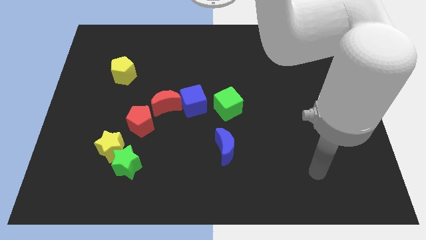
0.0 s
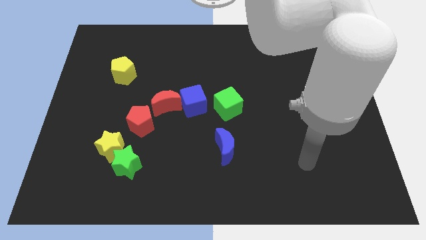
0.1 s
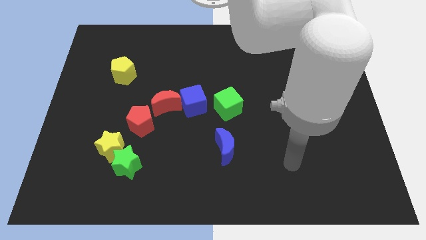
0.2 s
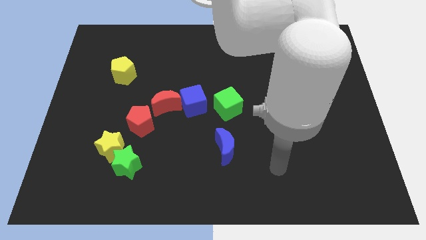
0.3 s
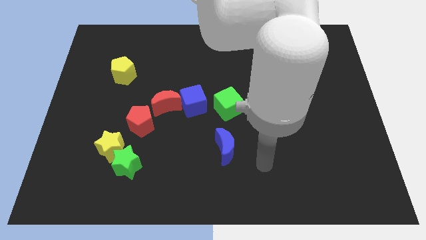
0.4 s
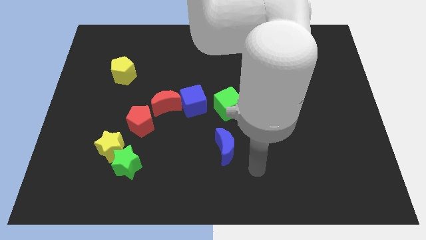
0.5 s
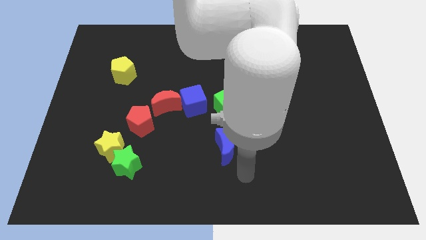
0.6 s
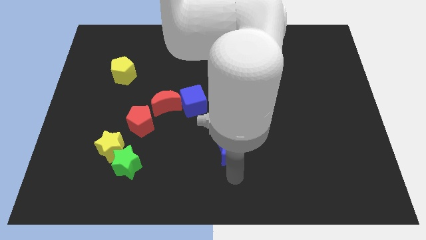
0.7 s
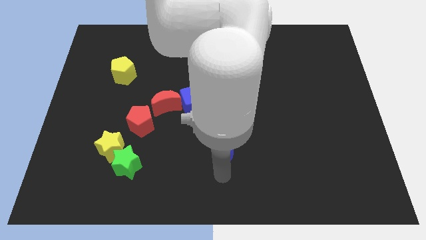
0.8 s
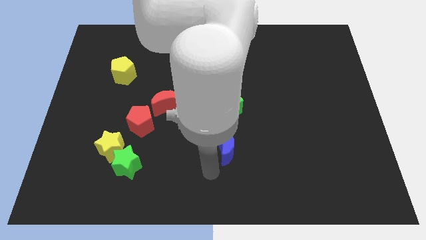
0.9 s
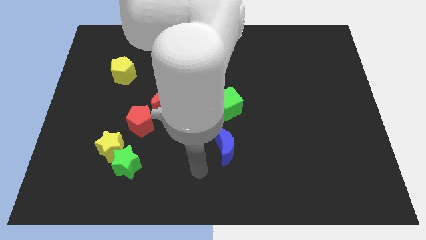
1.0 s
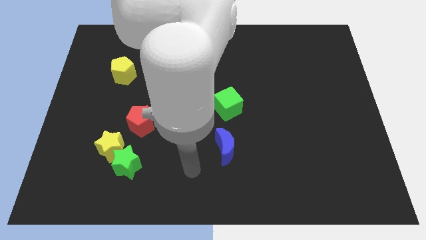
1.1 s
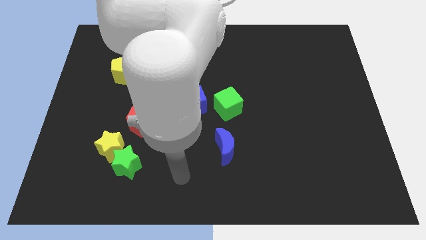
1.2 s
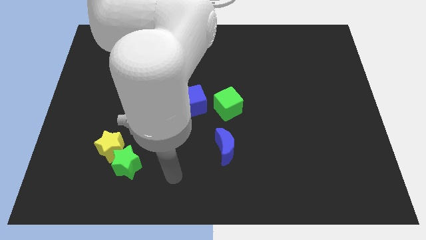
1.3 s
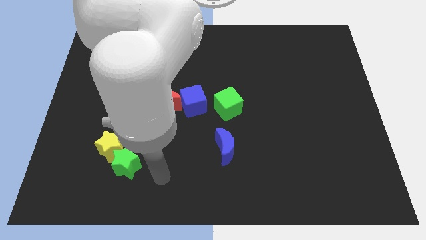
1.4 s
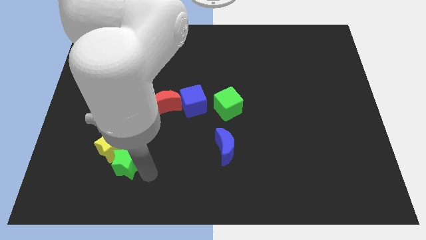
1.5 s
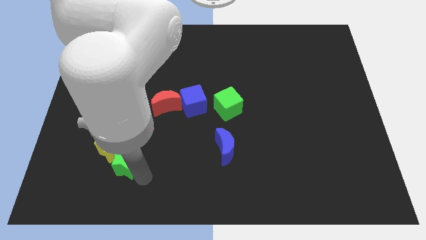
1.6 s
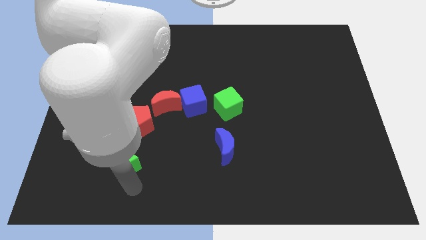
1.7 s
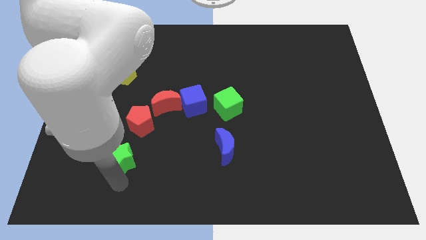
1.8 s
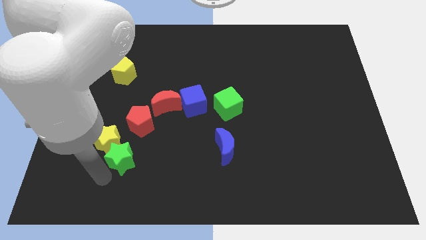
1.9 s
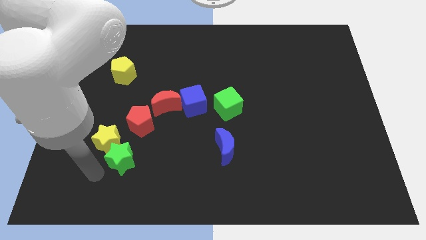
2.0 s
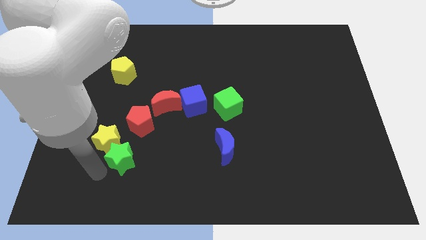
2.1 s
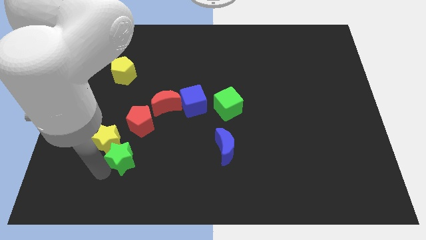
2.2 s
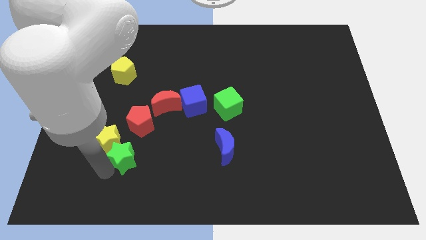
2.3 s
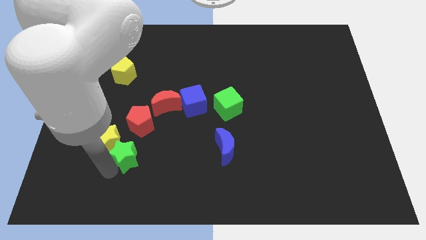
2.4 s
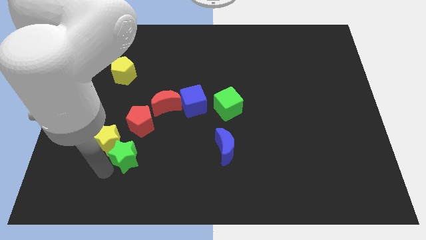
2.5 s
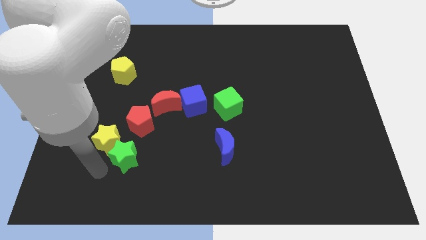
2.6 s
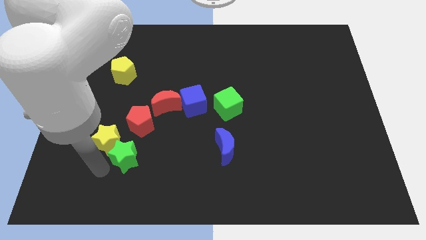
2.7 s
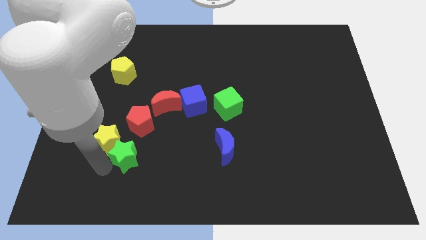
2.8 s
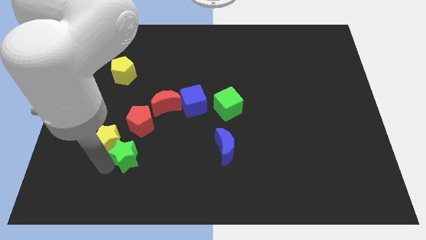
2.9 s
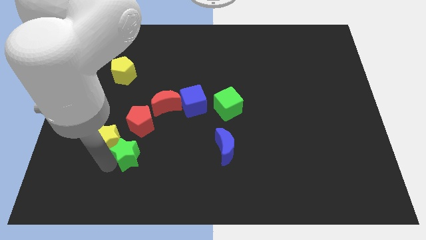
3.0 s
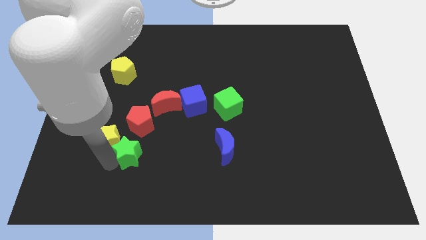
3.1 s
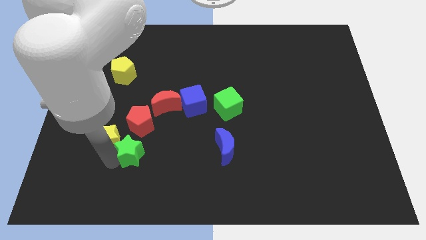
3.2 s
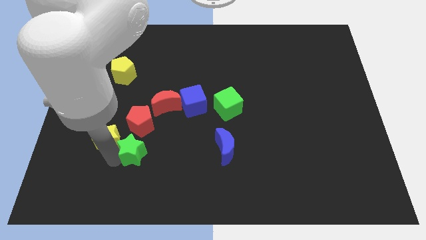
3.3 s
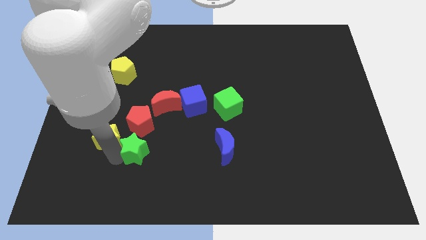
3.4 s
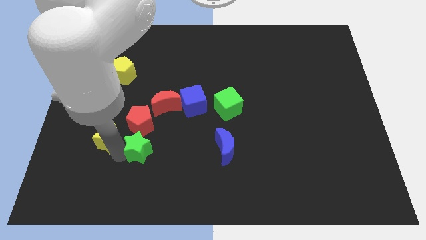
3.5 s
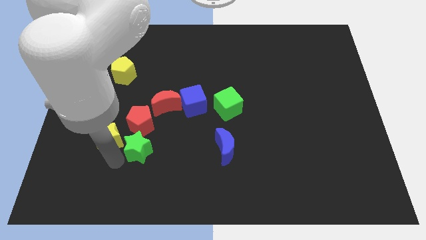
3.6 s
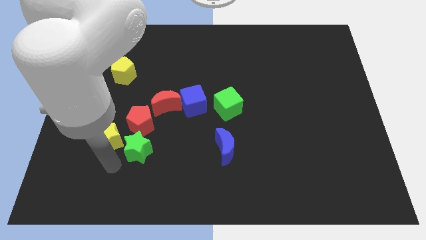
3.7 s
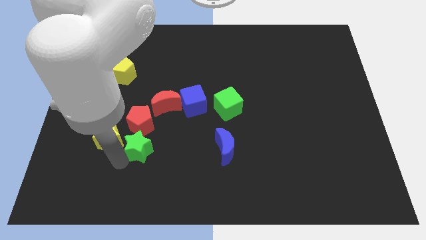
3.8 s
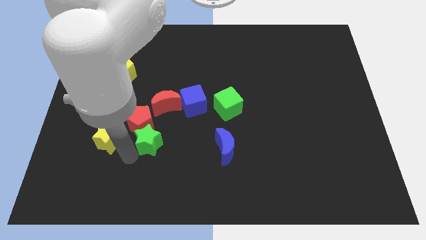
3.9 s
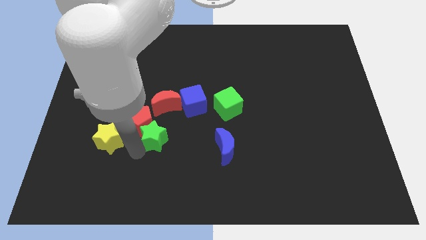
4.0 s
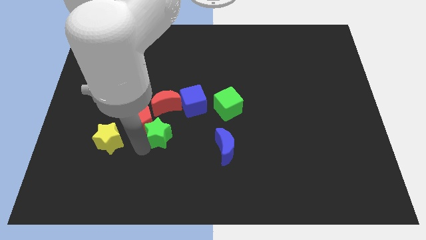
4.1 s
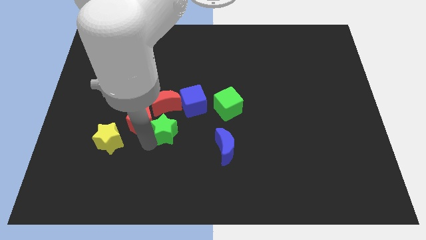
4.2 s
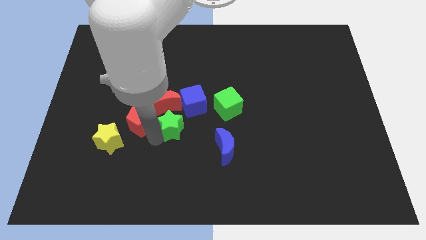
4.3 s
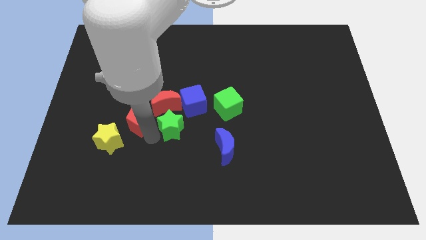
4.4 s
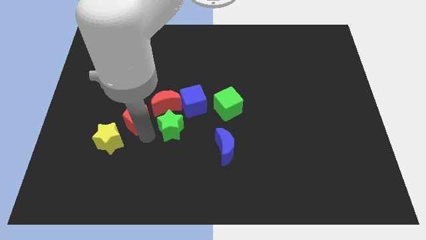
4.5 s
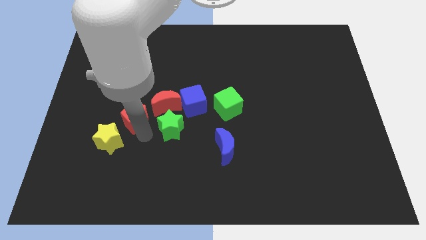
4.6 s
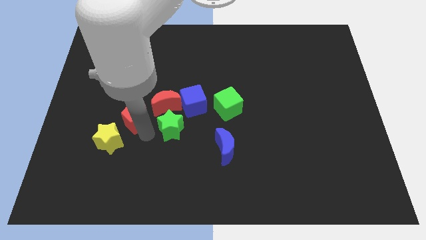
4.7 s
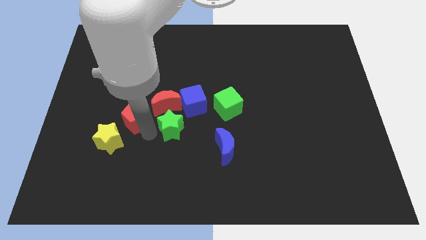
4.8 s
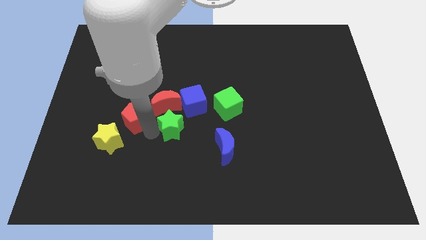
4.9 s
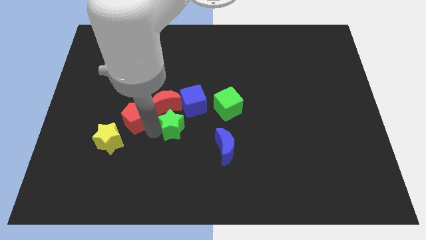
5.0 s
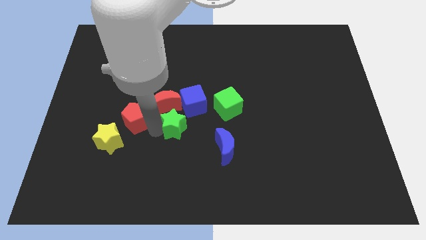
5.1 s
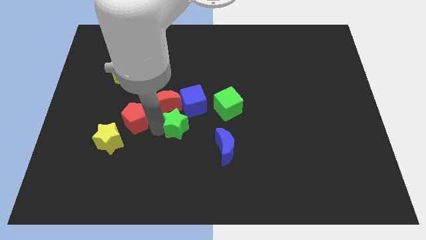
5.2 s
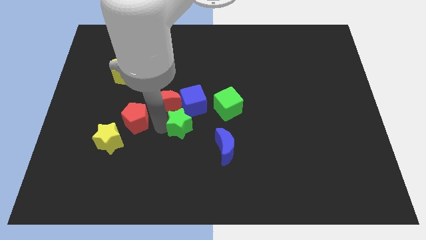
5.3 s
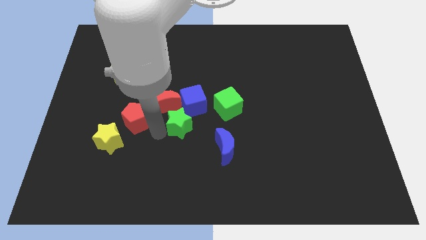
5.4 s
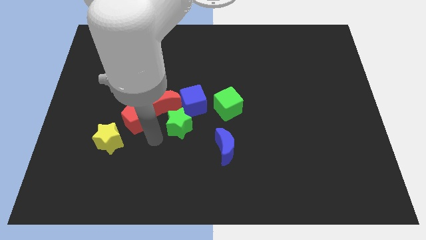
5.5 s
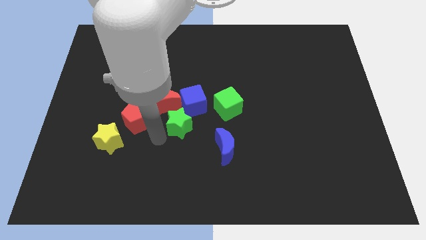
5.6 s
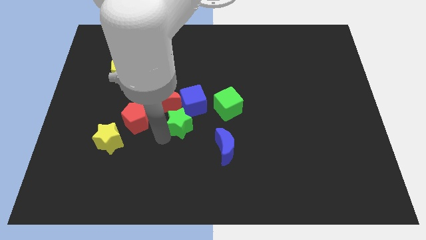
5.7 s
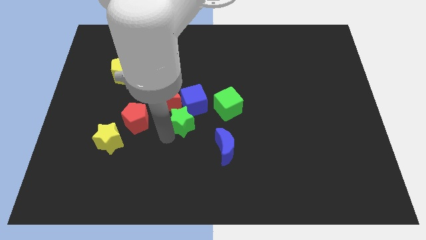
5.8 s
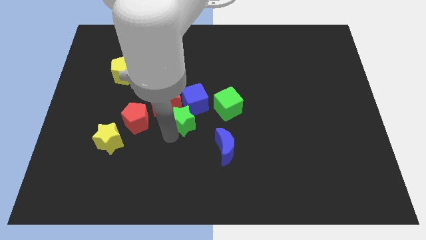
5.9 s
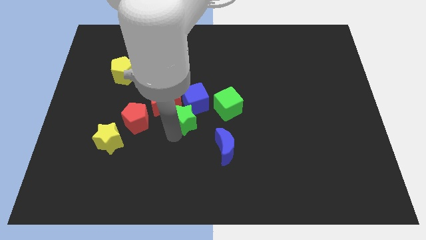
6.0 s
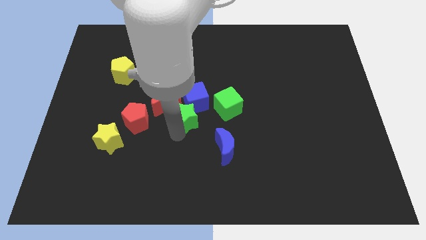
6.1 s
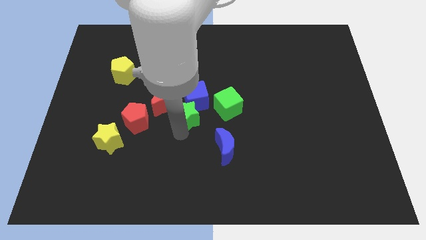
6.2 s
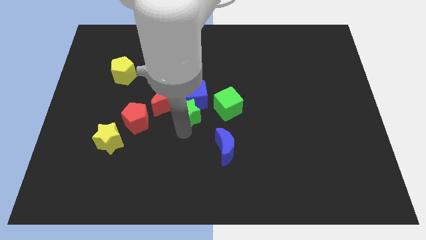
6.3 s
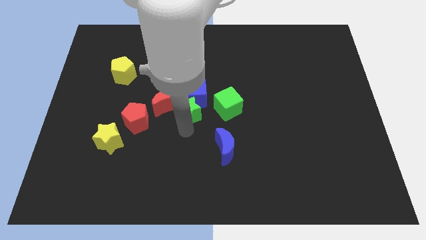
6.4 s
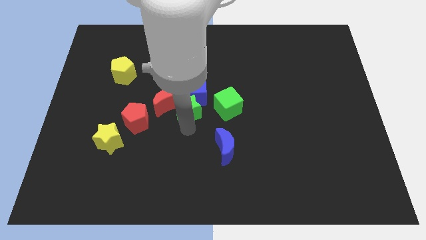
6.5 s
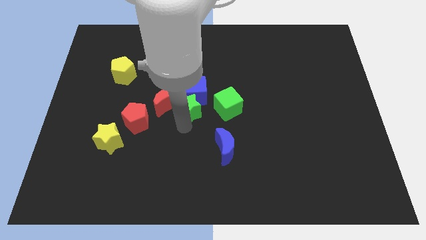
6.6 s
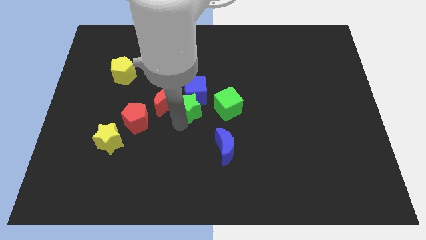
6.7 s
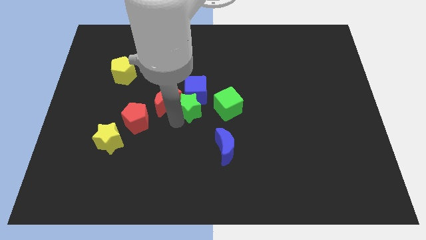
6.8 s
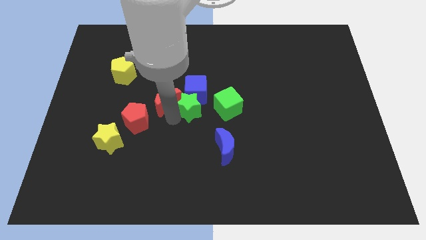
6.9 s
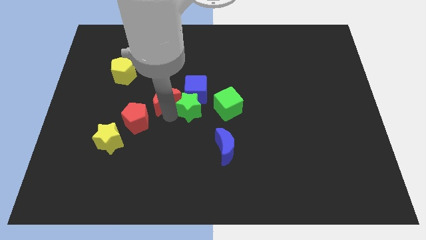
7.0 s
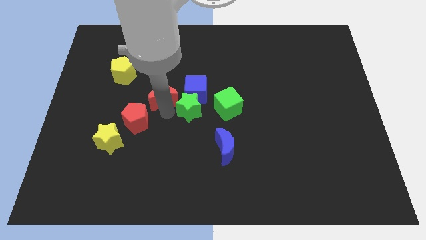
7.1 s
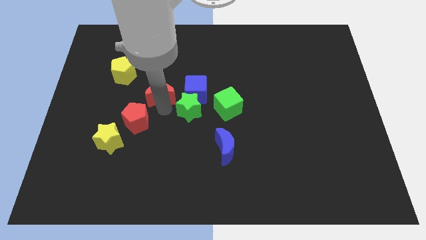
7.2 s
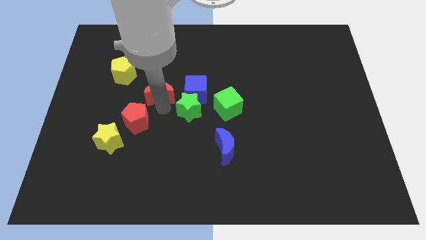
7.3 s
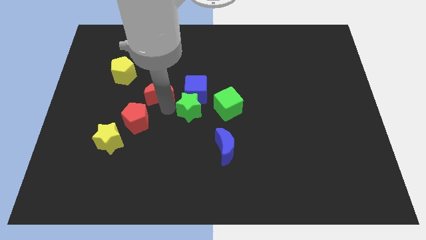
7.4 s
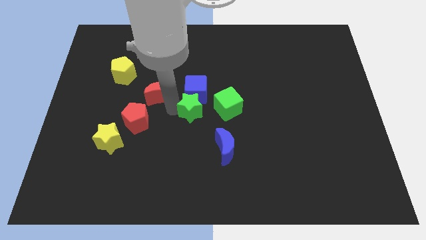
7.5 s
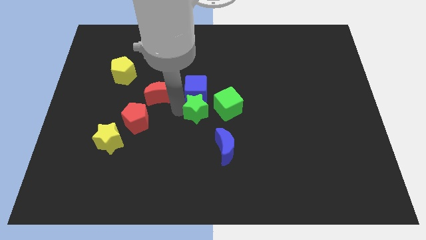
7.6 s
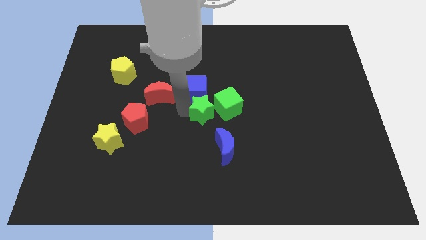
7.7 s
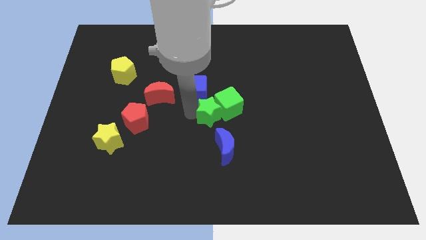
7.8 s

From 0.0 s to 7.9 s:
put the green star towards the green cube
